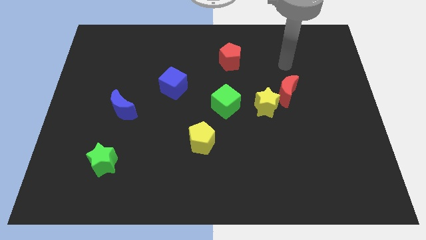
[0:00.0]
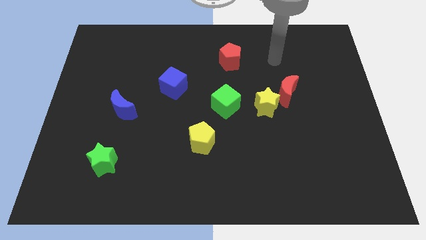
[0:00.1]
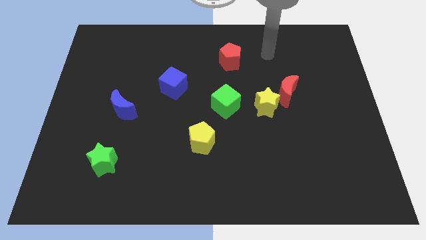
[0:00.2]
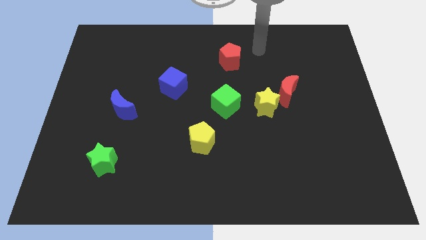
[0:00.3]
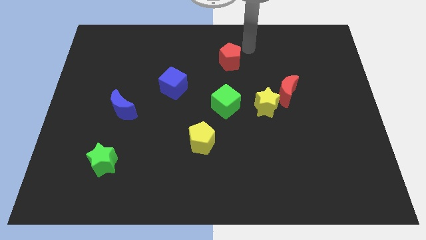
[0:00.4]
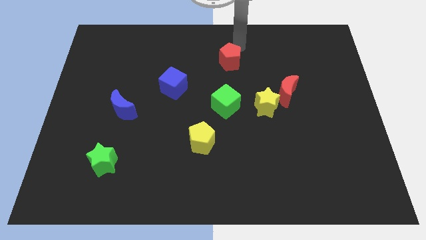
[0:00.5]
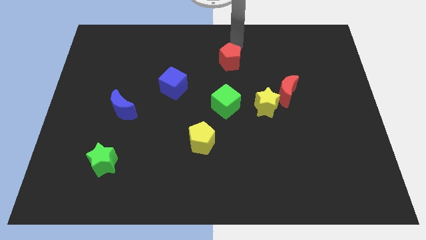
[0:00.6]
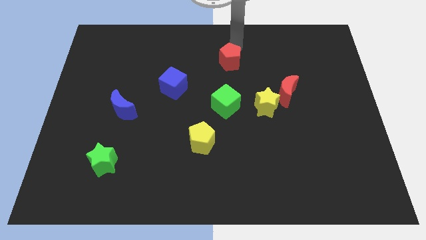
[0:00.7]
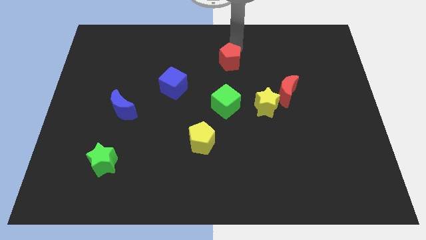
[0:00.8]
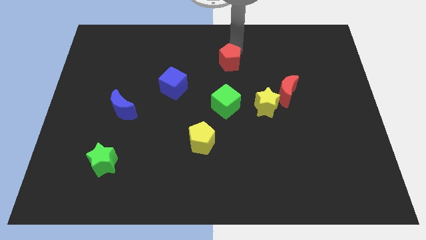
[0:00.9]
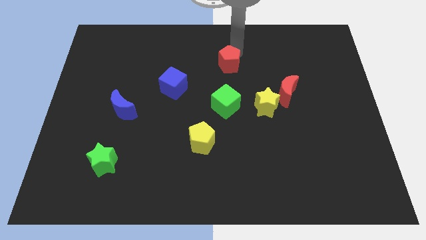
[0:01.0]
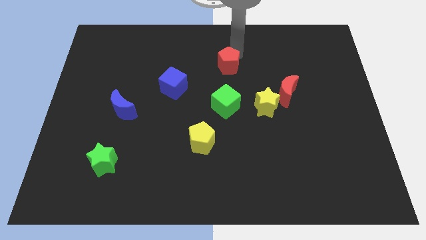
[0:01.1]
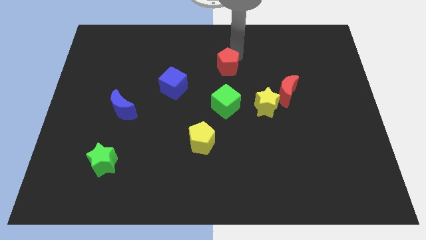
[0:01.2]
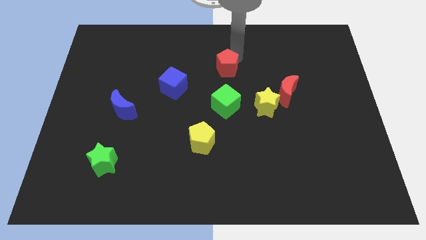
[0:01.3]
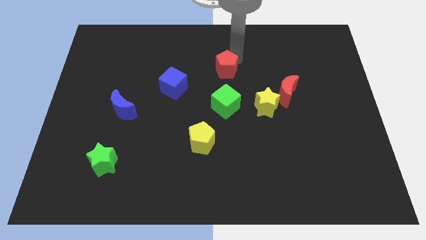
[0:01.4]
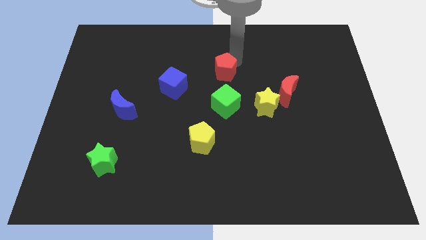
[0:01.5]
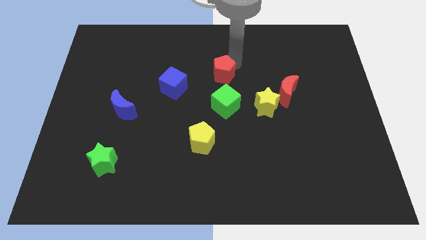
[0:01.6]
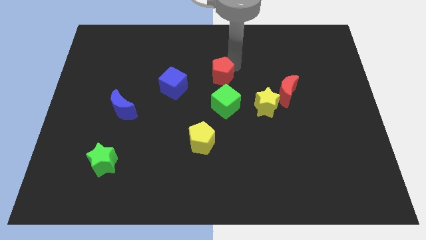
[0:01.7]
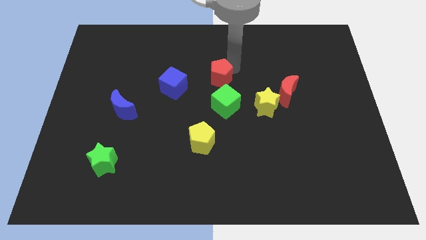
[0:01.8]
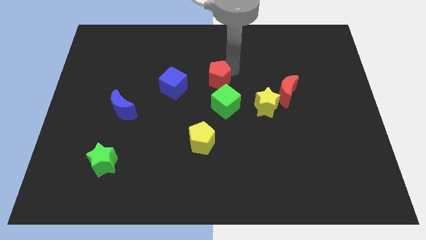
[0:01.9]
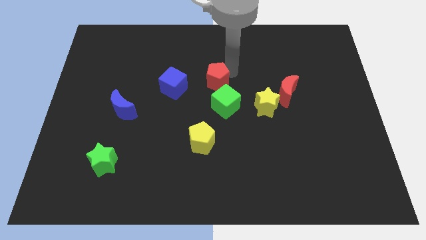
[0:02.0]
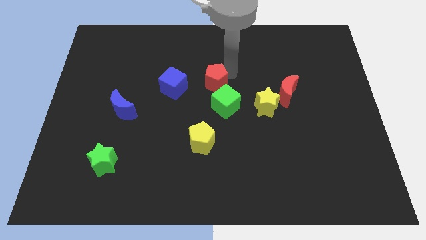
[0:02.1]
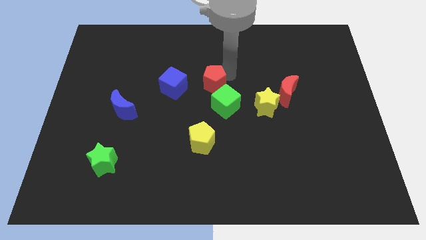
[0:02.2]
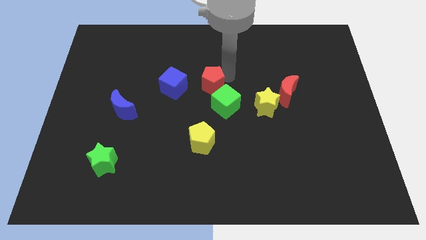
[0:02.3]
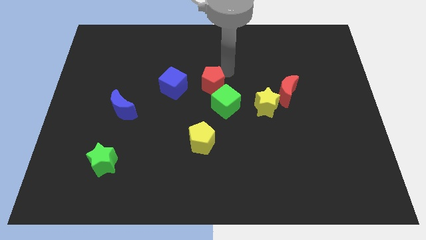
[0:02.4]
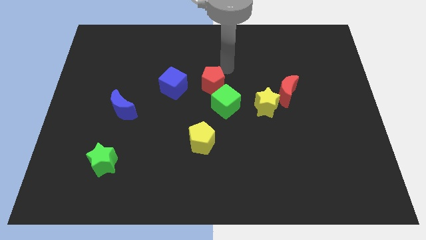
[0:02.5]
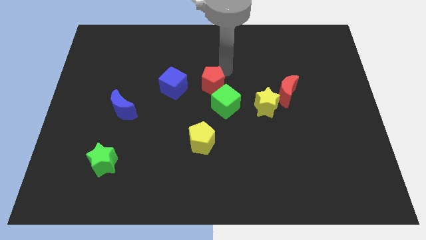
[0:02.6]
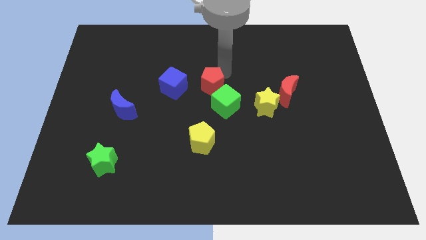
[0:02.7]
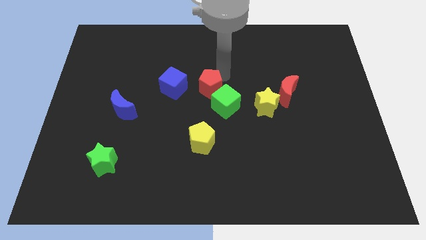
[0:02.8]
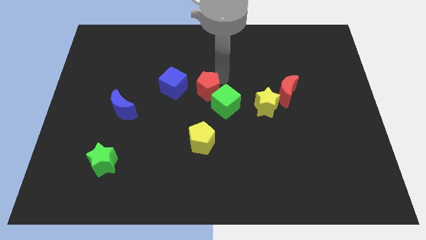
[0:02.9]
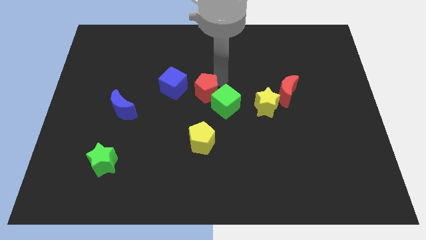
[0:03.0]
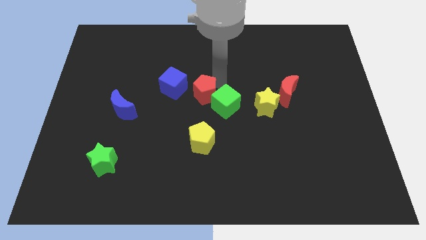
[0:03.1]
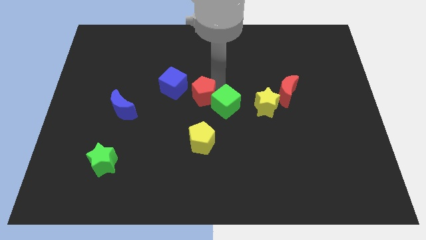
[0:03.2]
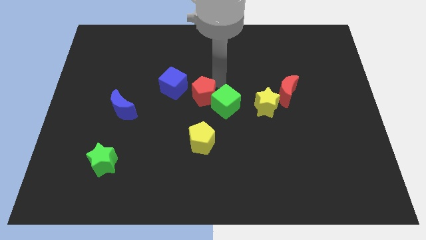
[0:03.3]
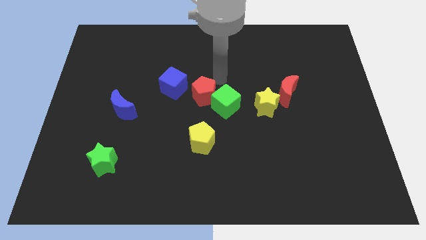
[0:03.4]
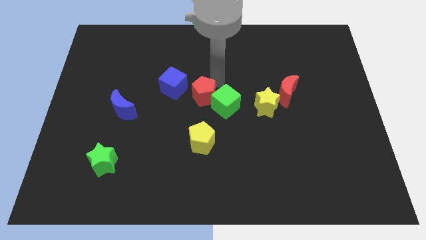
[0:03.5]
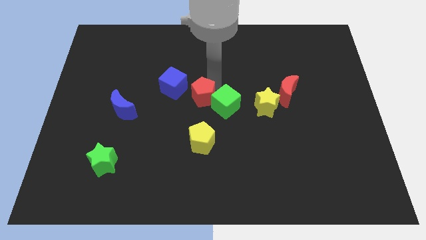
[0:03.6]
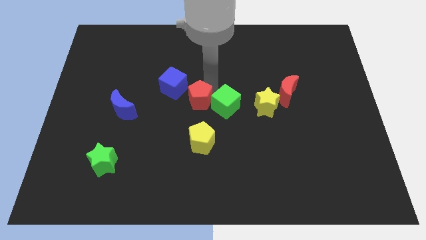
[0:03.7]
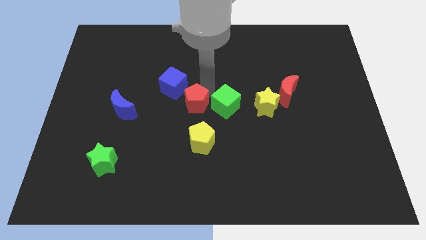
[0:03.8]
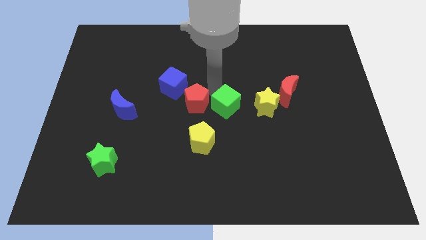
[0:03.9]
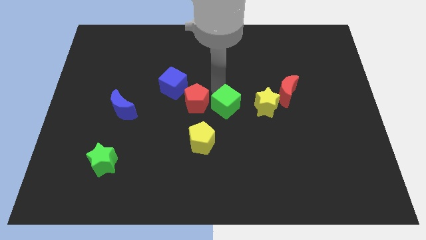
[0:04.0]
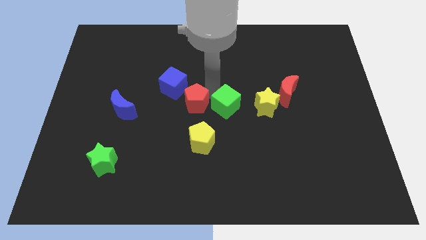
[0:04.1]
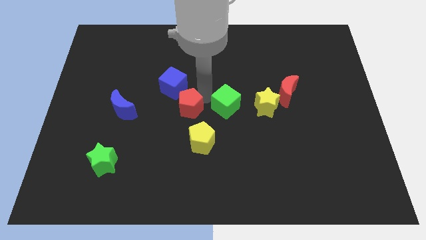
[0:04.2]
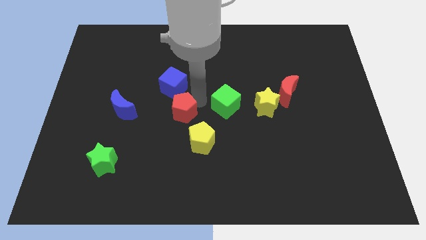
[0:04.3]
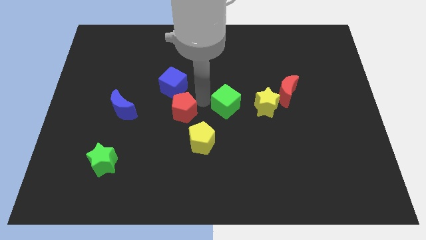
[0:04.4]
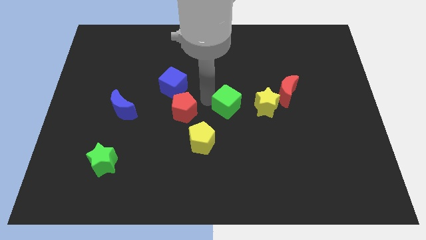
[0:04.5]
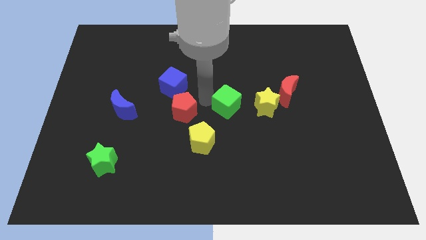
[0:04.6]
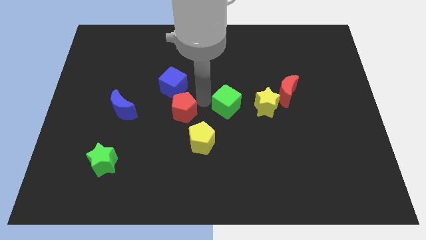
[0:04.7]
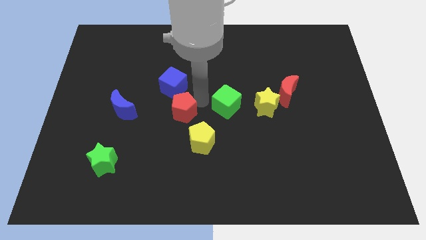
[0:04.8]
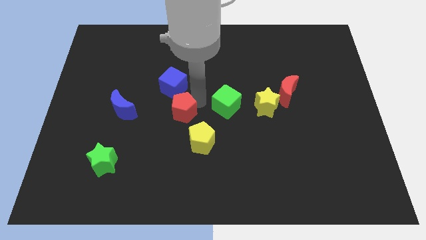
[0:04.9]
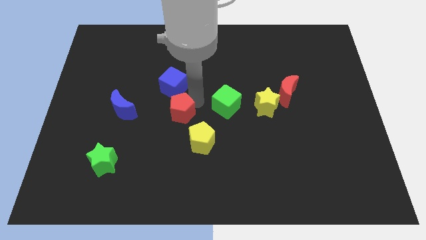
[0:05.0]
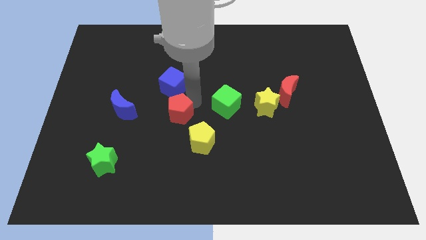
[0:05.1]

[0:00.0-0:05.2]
move the red pentagon downwards and to the left

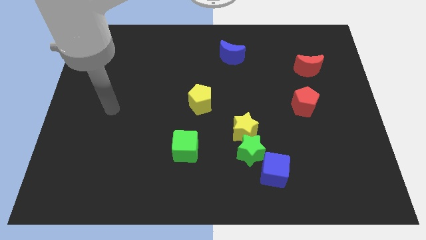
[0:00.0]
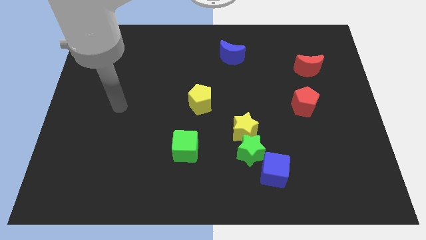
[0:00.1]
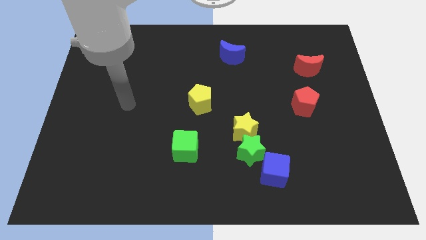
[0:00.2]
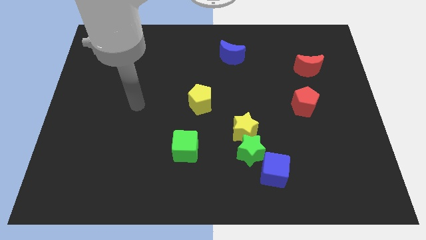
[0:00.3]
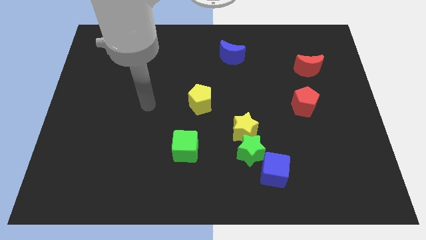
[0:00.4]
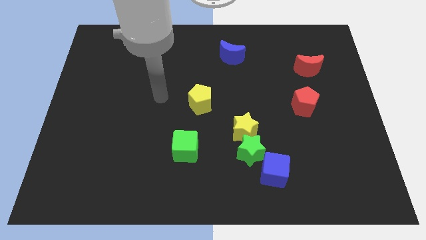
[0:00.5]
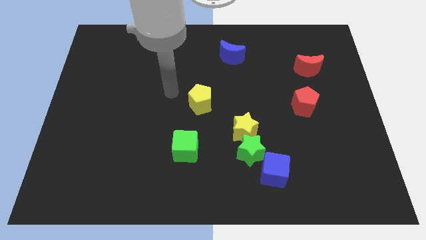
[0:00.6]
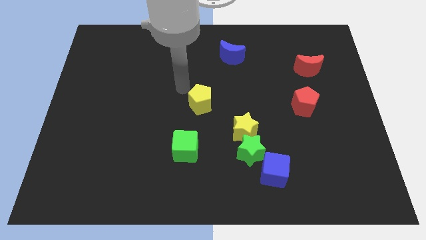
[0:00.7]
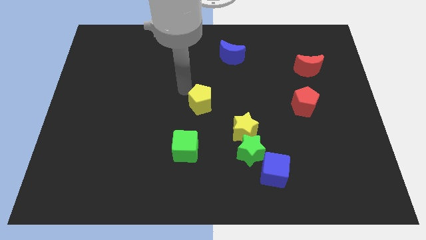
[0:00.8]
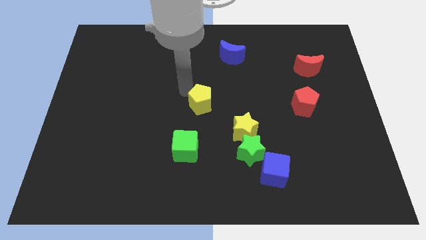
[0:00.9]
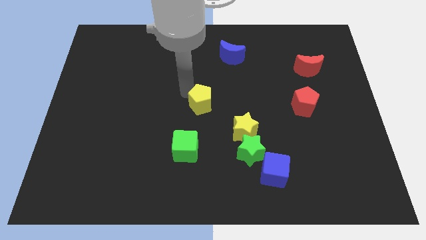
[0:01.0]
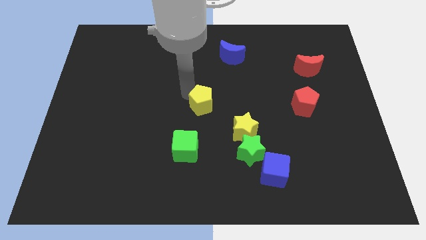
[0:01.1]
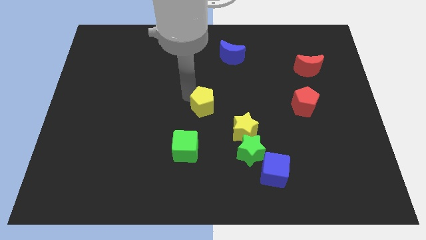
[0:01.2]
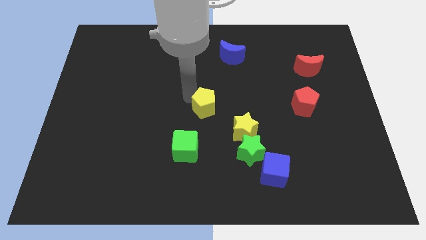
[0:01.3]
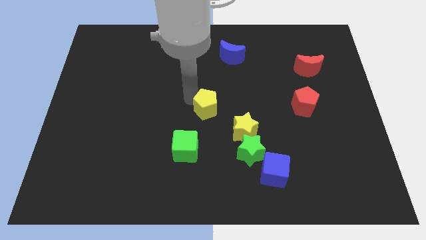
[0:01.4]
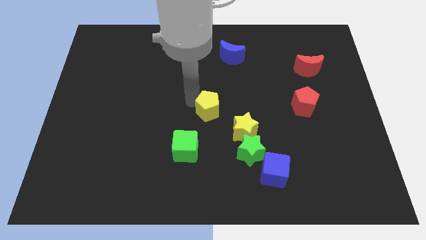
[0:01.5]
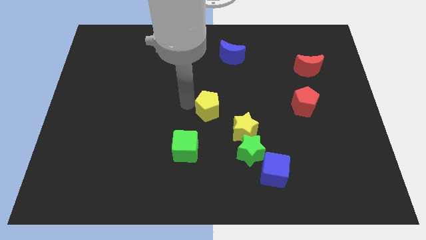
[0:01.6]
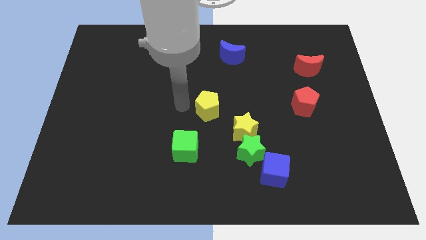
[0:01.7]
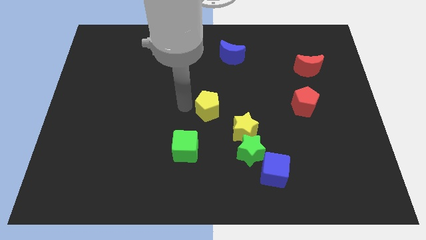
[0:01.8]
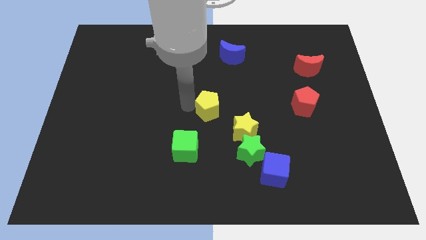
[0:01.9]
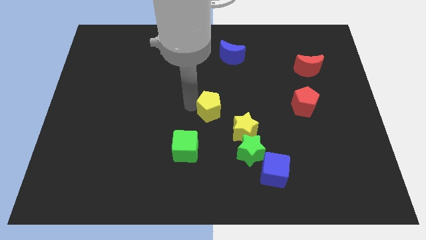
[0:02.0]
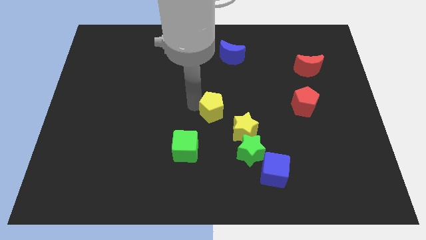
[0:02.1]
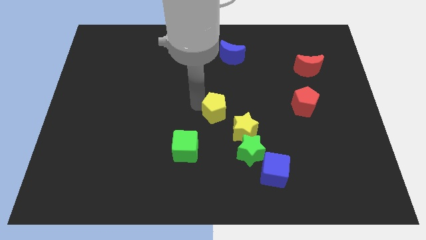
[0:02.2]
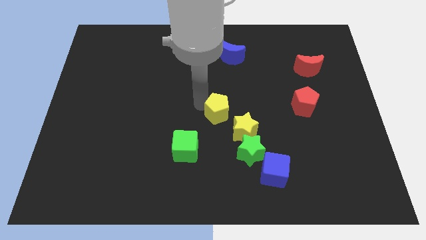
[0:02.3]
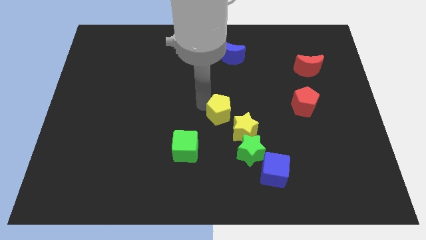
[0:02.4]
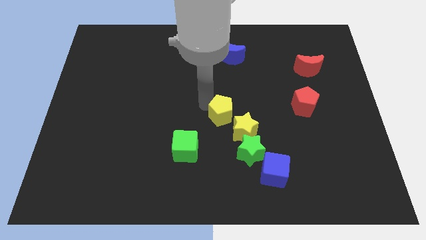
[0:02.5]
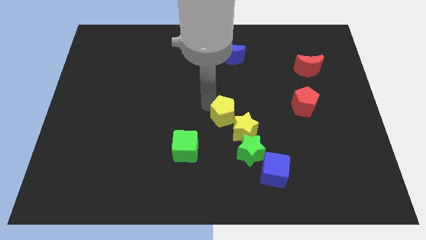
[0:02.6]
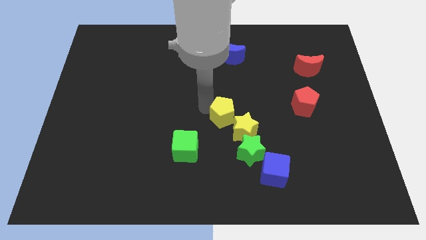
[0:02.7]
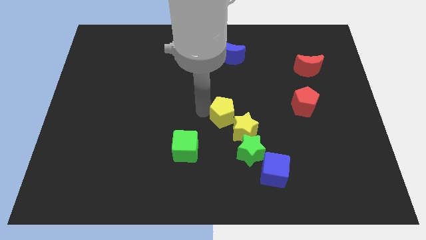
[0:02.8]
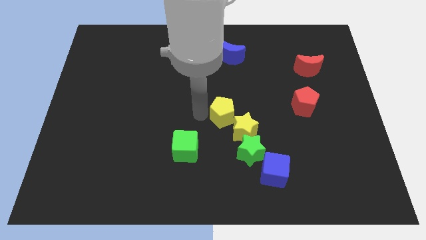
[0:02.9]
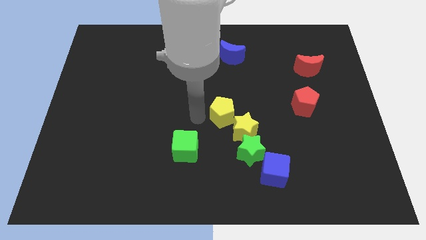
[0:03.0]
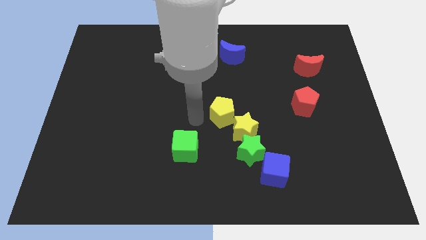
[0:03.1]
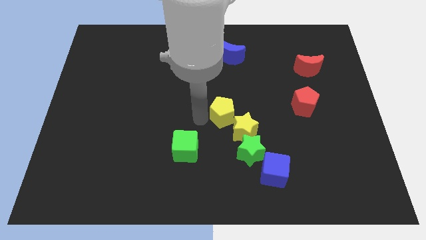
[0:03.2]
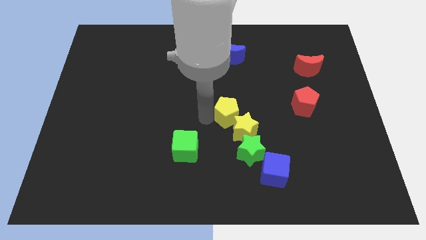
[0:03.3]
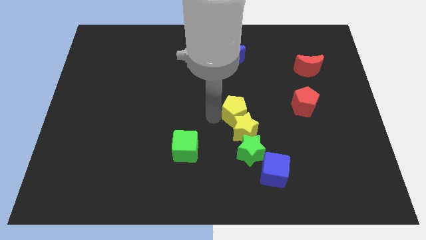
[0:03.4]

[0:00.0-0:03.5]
slightly push the yellow pentagon right
